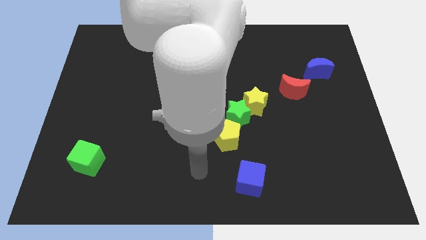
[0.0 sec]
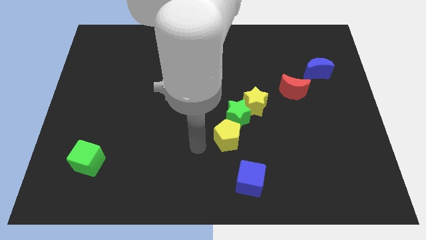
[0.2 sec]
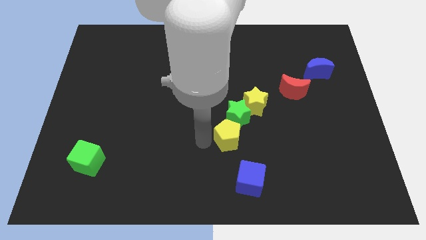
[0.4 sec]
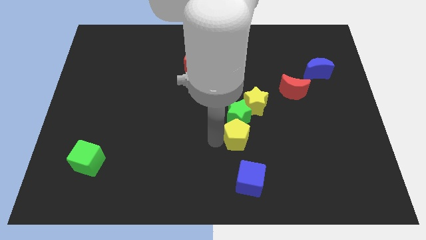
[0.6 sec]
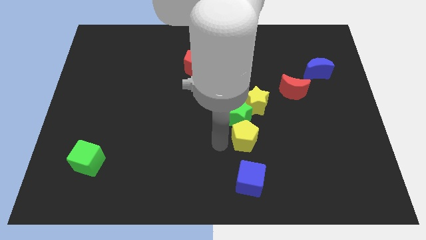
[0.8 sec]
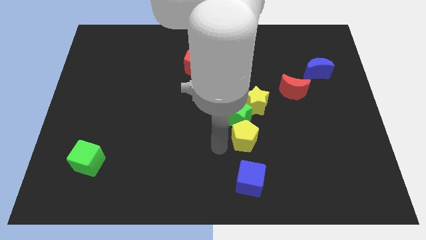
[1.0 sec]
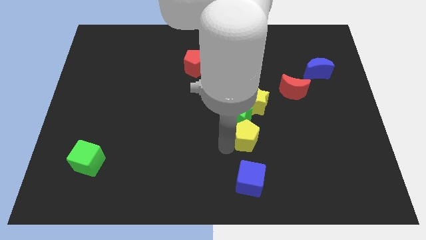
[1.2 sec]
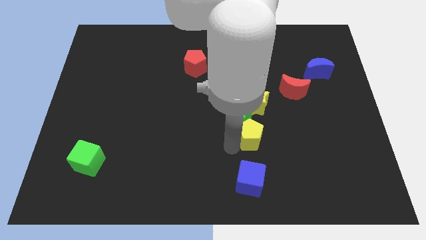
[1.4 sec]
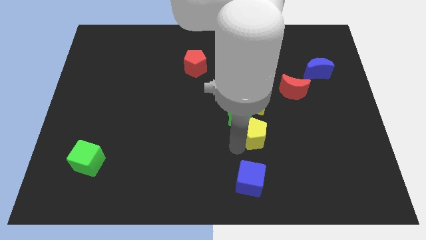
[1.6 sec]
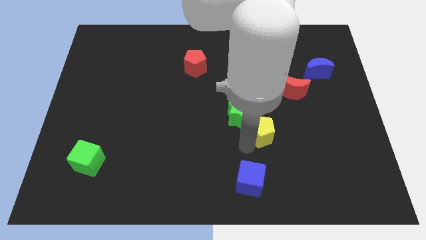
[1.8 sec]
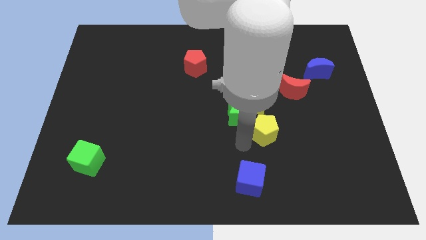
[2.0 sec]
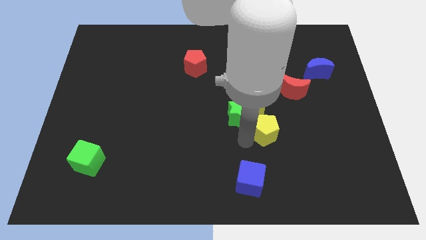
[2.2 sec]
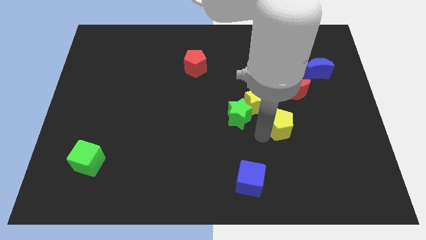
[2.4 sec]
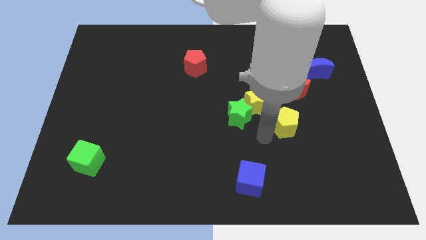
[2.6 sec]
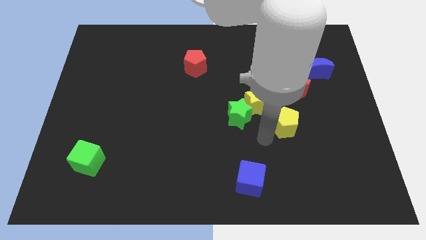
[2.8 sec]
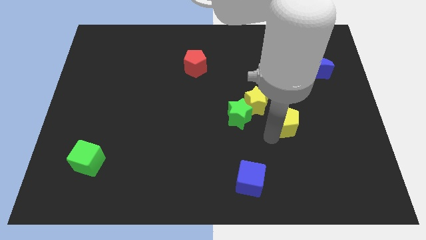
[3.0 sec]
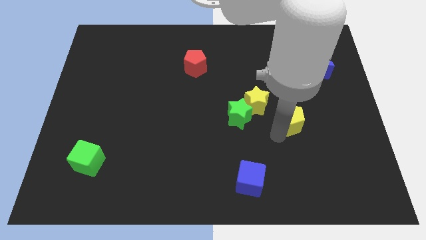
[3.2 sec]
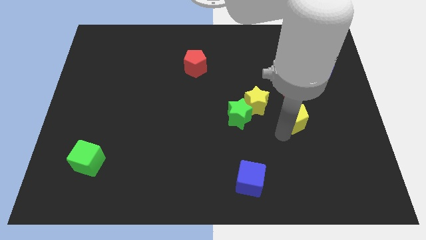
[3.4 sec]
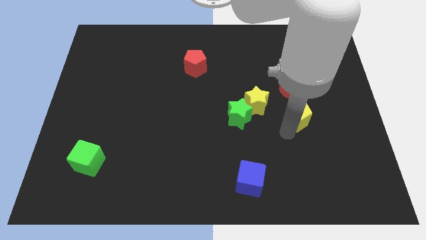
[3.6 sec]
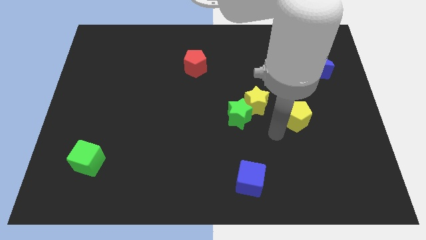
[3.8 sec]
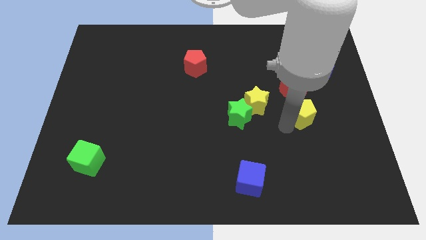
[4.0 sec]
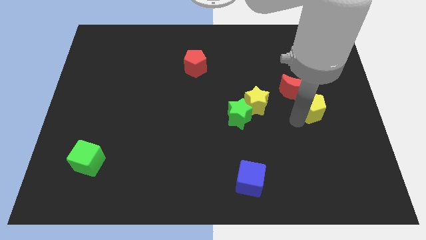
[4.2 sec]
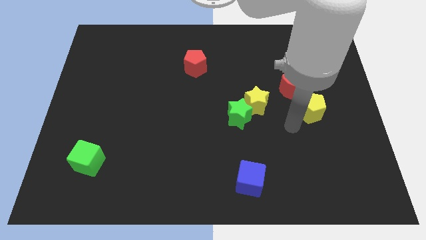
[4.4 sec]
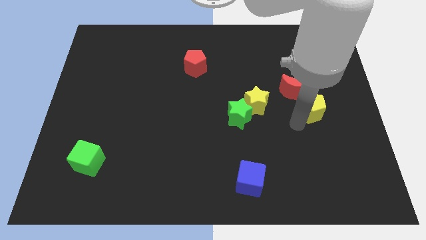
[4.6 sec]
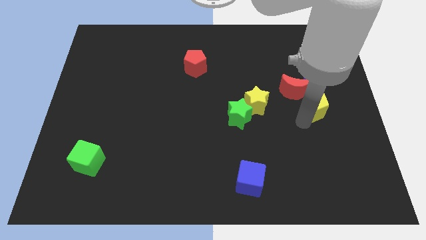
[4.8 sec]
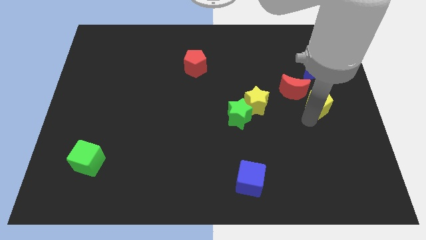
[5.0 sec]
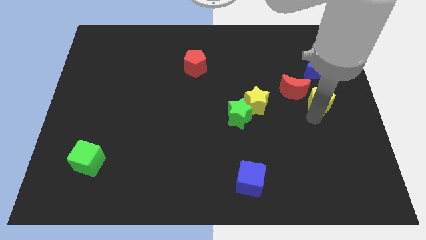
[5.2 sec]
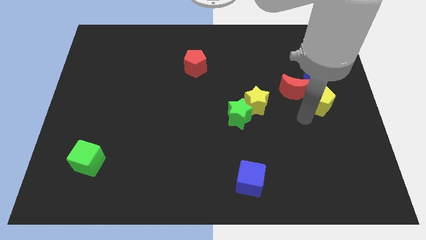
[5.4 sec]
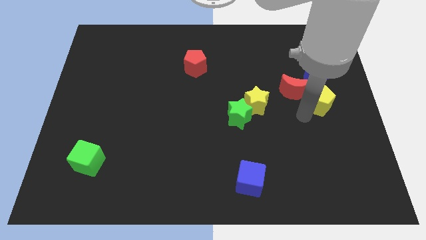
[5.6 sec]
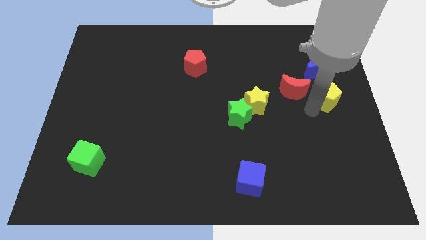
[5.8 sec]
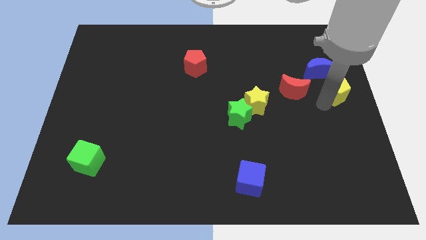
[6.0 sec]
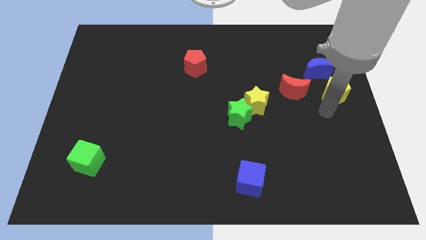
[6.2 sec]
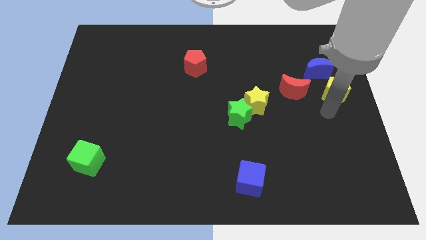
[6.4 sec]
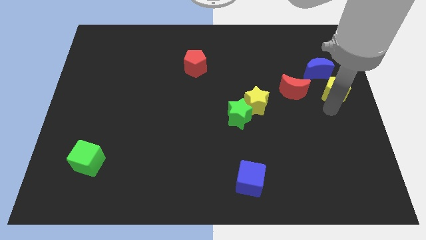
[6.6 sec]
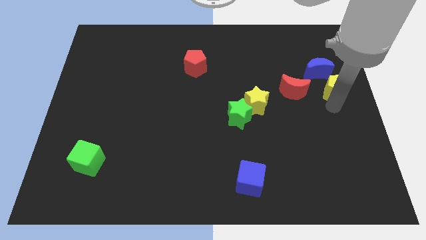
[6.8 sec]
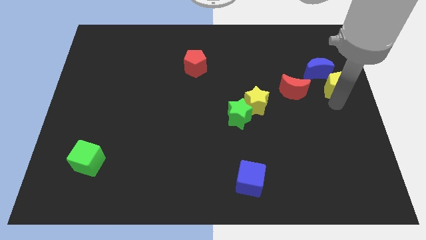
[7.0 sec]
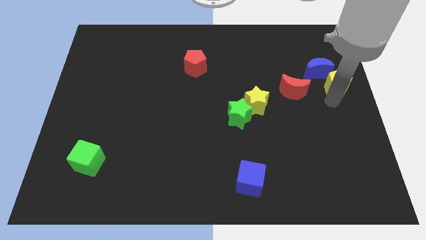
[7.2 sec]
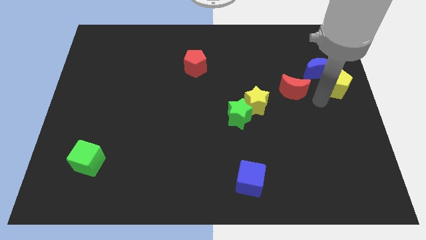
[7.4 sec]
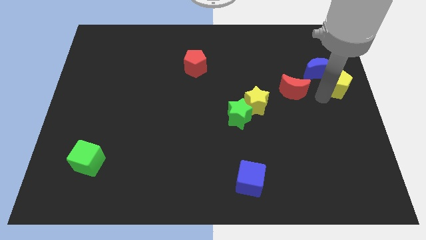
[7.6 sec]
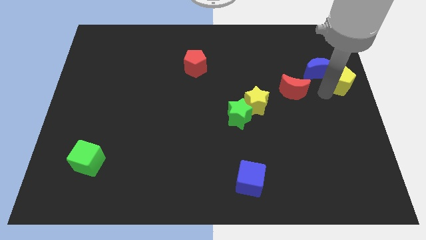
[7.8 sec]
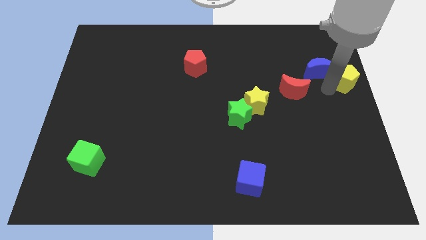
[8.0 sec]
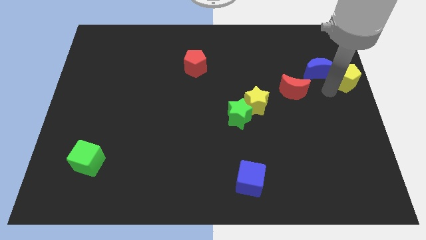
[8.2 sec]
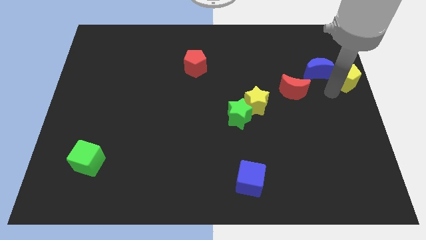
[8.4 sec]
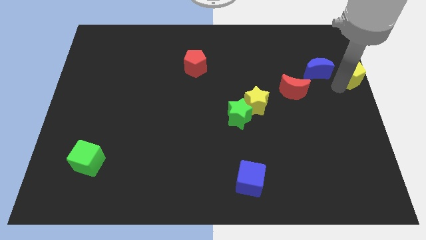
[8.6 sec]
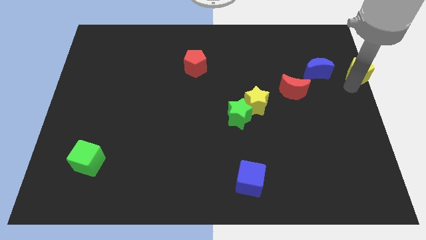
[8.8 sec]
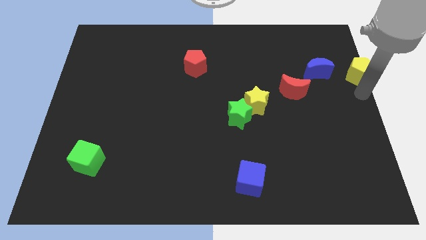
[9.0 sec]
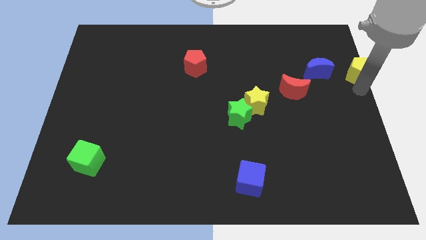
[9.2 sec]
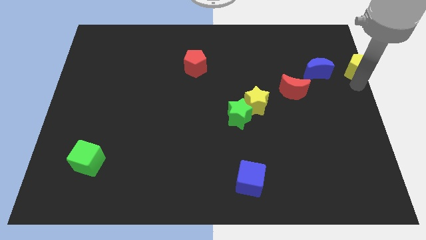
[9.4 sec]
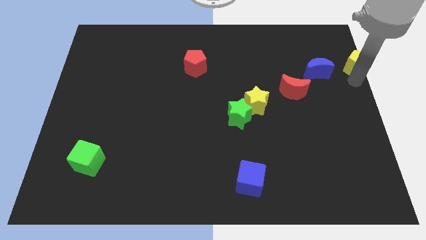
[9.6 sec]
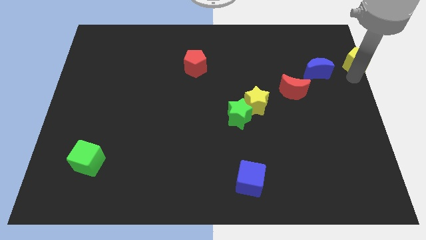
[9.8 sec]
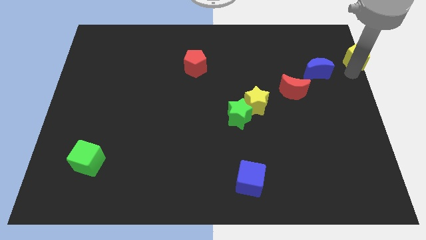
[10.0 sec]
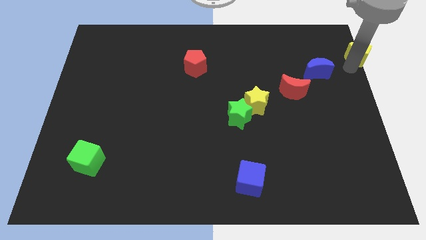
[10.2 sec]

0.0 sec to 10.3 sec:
push the yellow pentagon to the upper right corner

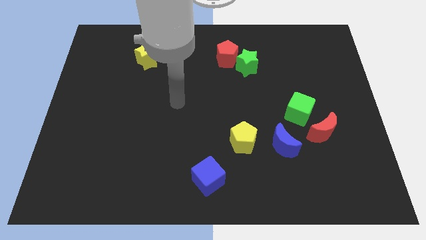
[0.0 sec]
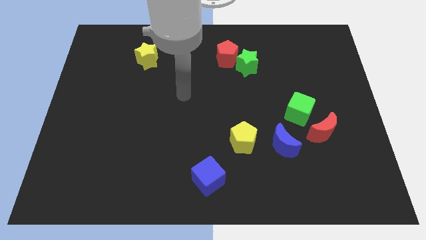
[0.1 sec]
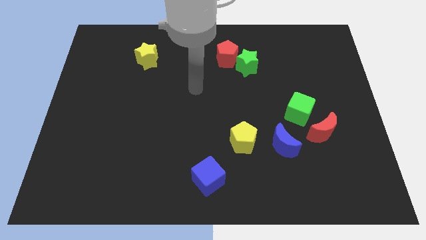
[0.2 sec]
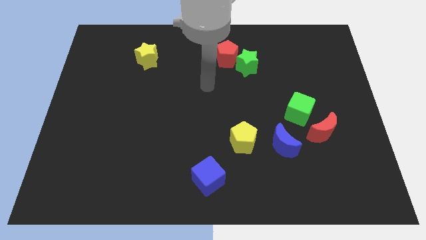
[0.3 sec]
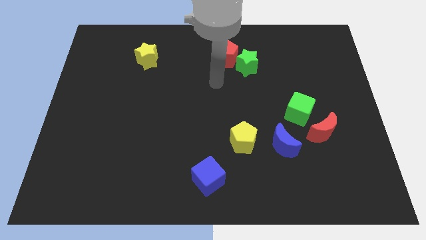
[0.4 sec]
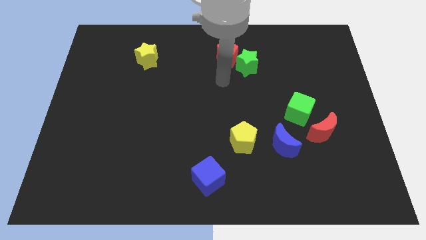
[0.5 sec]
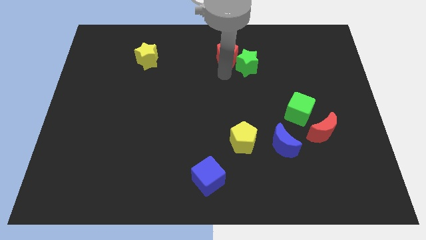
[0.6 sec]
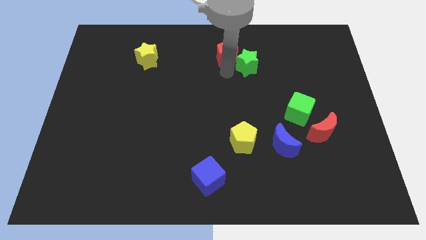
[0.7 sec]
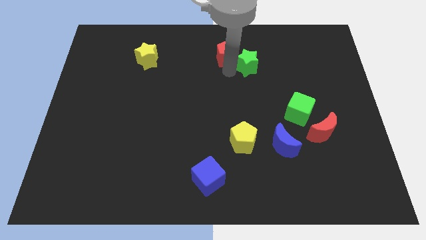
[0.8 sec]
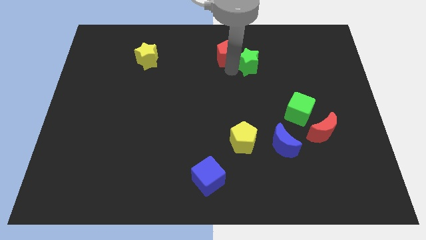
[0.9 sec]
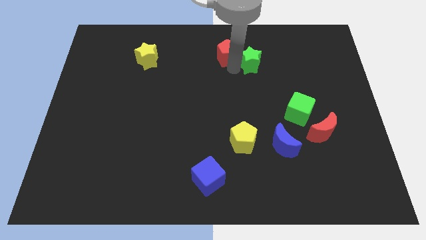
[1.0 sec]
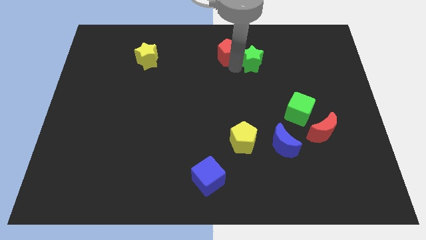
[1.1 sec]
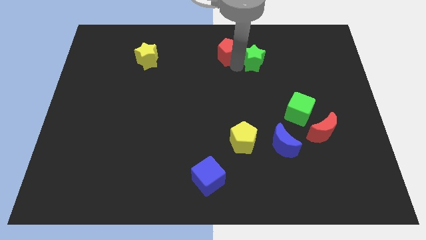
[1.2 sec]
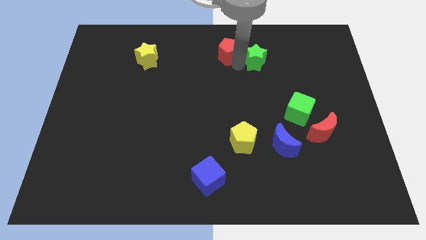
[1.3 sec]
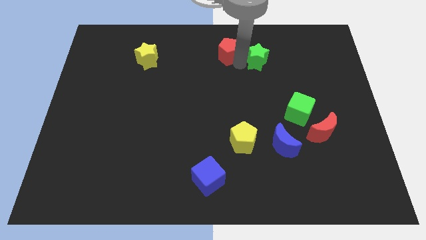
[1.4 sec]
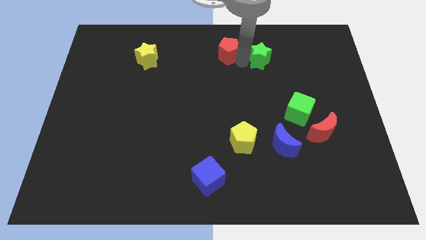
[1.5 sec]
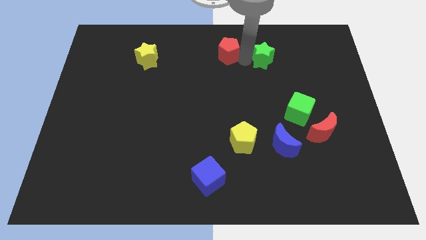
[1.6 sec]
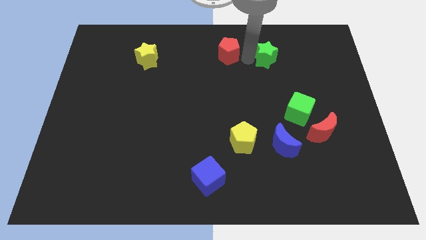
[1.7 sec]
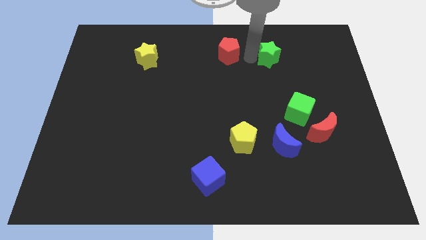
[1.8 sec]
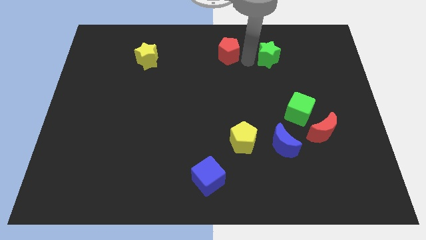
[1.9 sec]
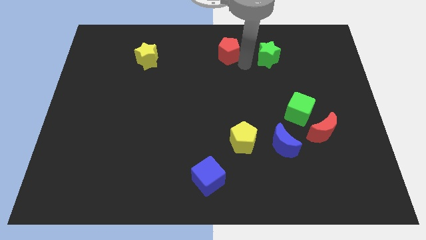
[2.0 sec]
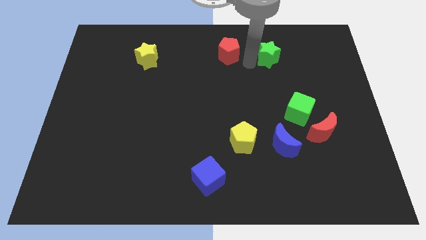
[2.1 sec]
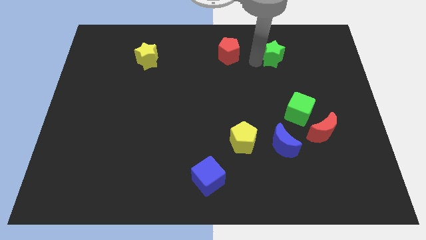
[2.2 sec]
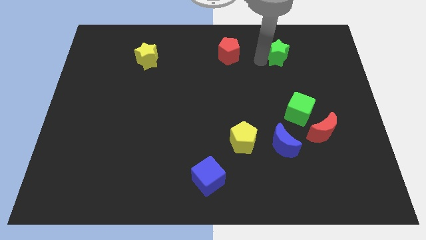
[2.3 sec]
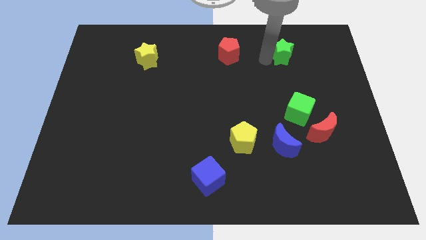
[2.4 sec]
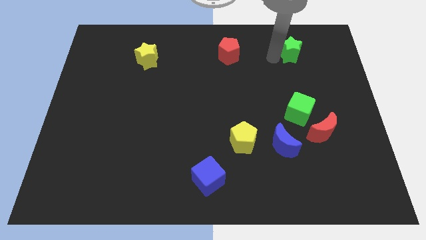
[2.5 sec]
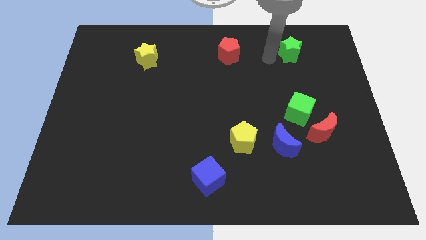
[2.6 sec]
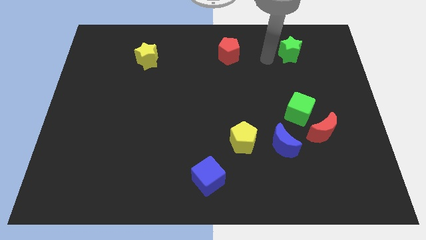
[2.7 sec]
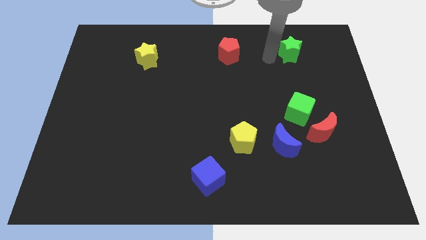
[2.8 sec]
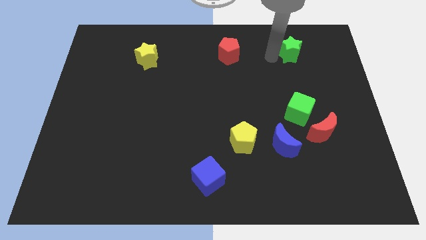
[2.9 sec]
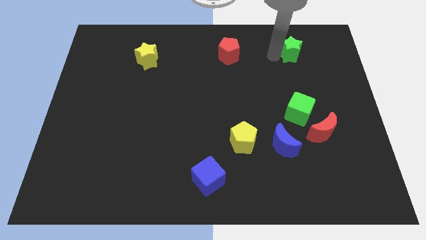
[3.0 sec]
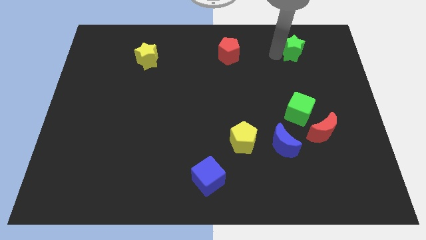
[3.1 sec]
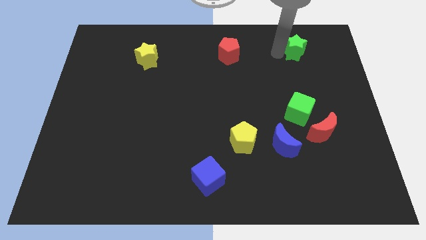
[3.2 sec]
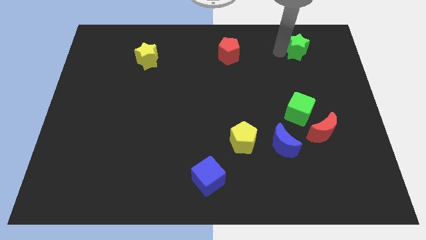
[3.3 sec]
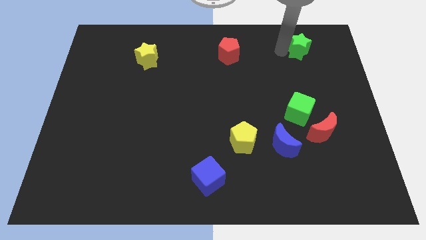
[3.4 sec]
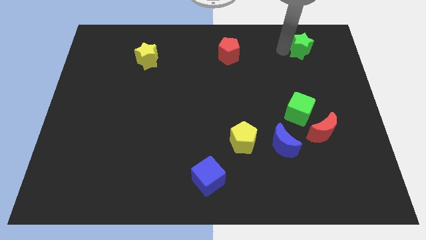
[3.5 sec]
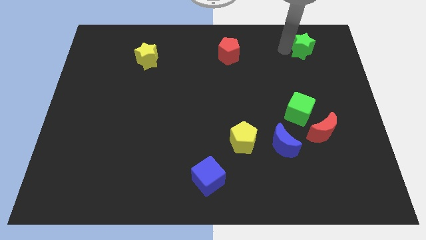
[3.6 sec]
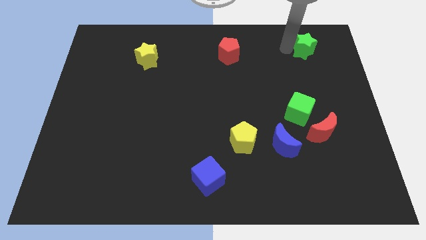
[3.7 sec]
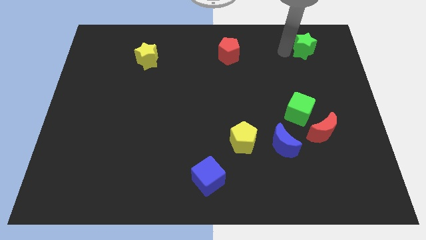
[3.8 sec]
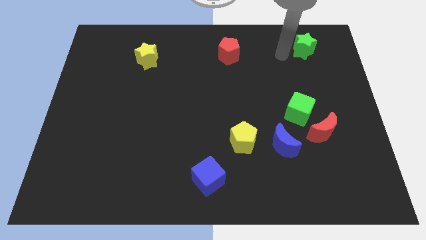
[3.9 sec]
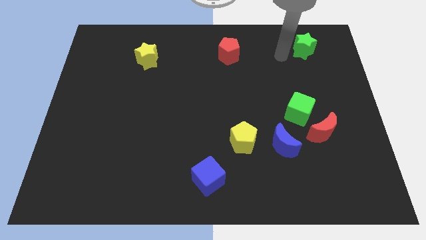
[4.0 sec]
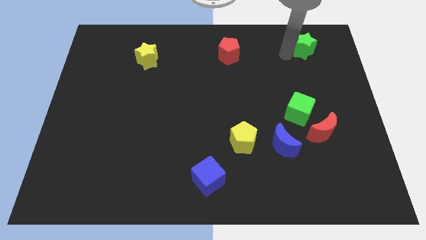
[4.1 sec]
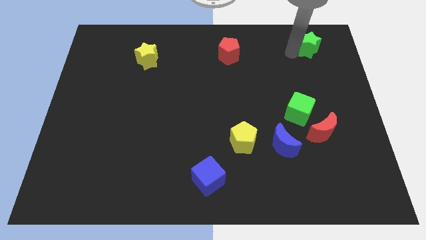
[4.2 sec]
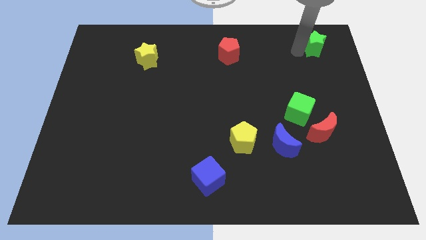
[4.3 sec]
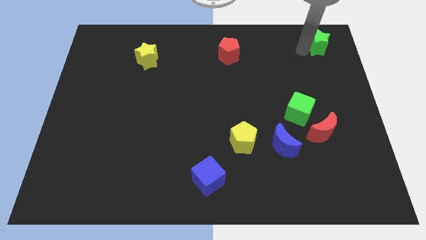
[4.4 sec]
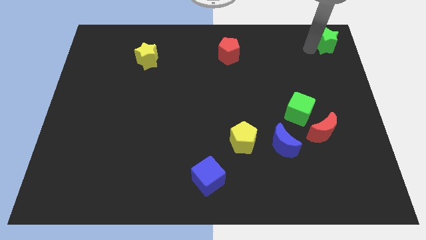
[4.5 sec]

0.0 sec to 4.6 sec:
put the green star to the top right of the board
